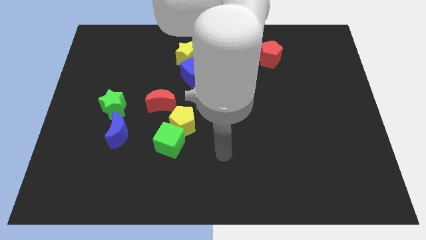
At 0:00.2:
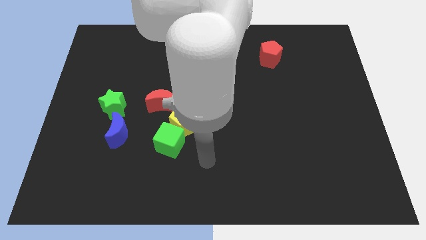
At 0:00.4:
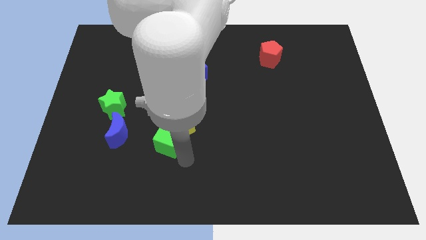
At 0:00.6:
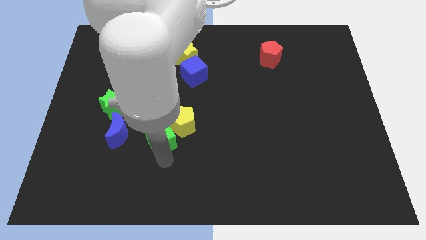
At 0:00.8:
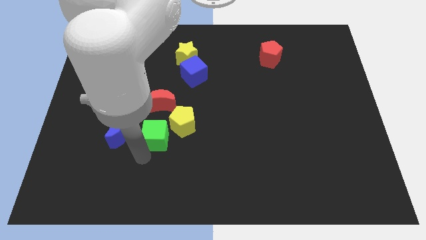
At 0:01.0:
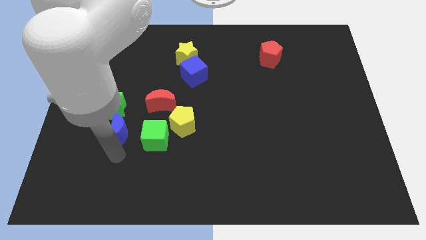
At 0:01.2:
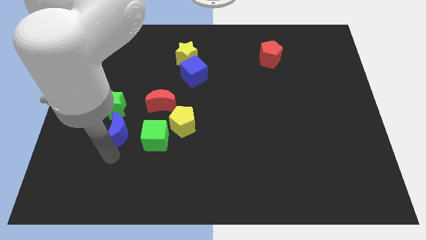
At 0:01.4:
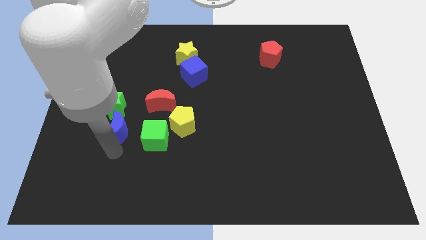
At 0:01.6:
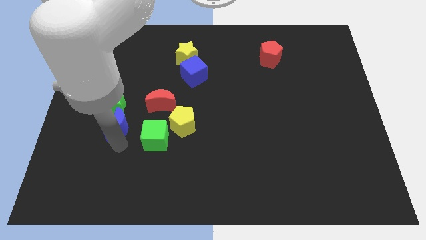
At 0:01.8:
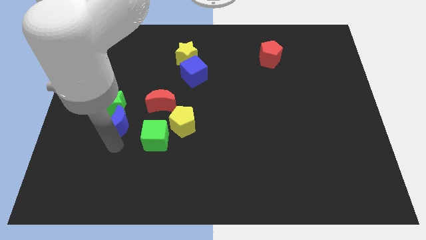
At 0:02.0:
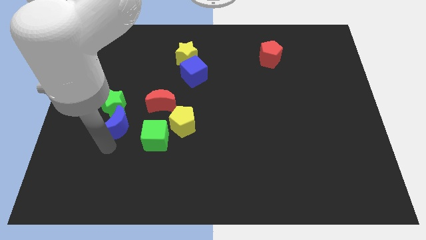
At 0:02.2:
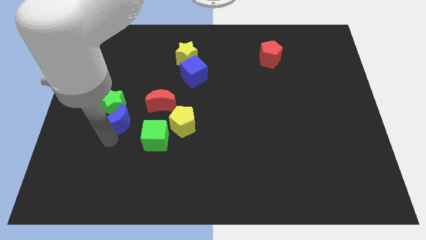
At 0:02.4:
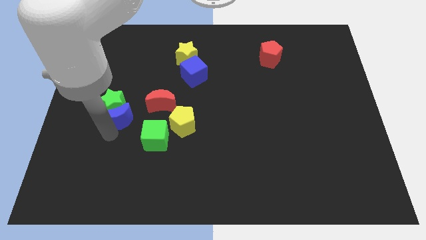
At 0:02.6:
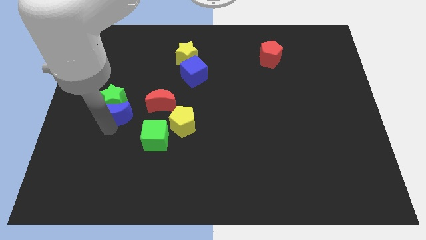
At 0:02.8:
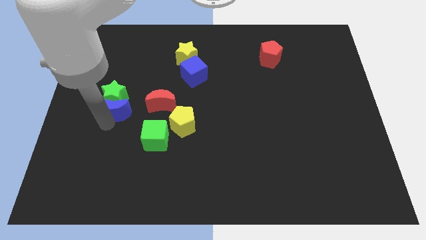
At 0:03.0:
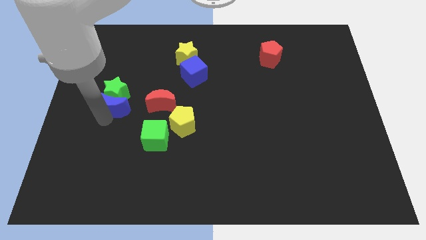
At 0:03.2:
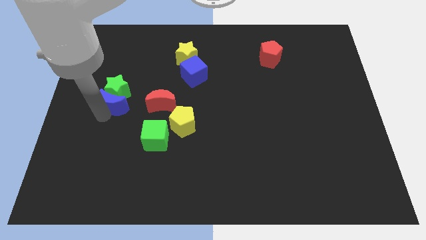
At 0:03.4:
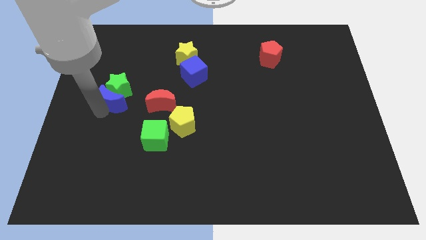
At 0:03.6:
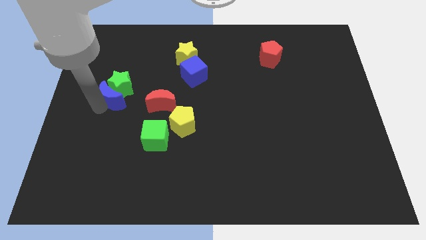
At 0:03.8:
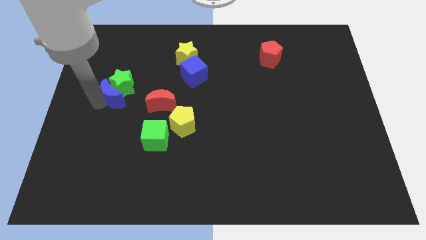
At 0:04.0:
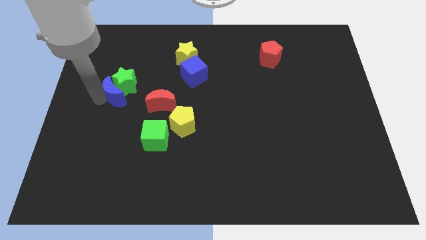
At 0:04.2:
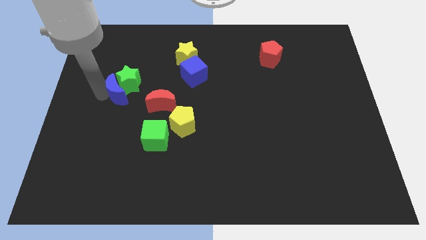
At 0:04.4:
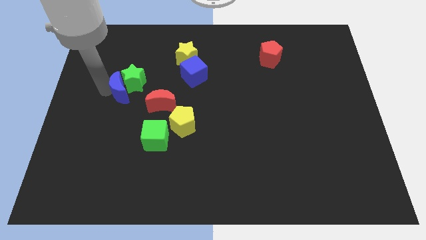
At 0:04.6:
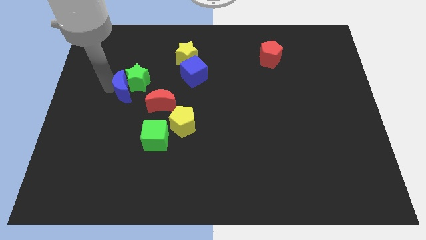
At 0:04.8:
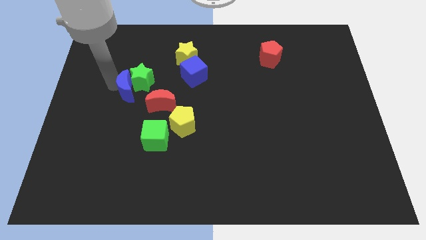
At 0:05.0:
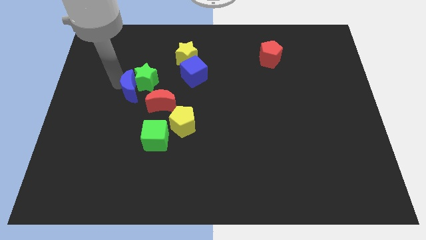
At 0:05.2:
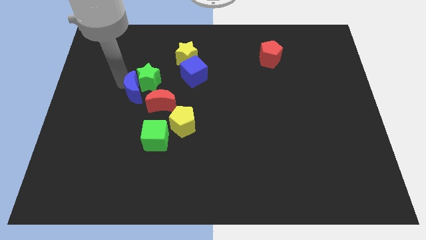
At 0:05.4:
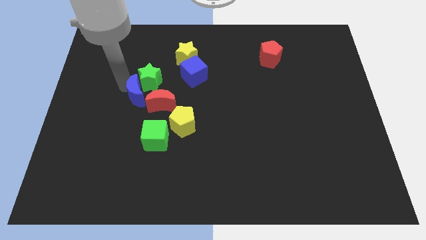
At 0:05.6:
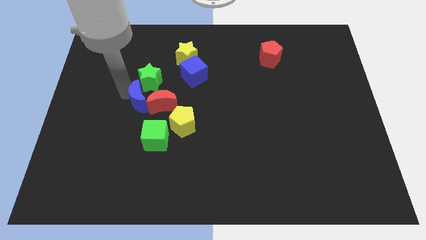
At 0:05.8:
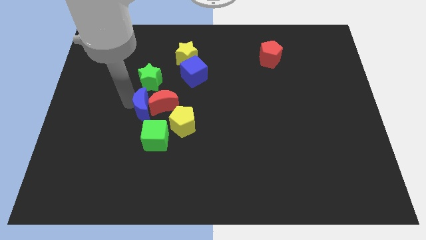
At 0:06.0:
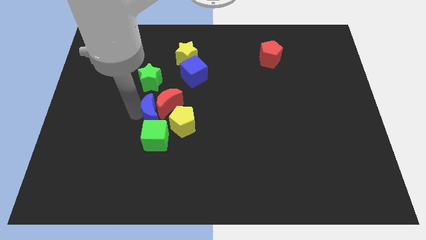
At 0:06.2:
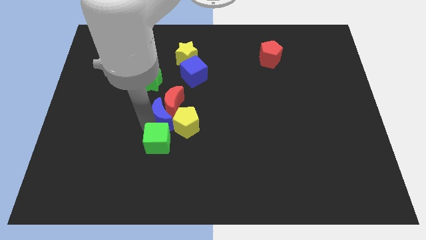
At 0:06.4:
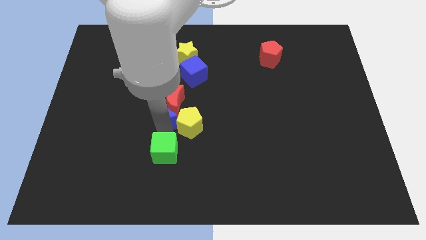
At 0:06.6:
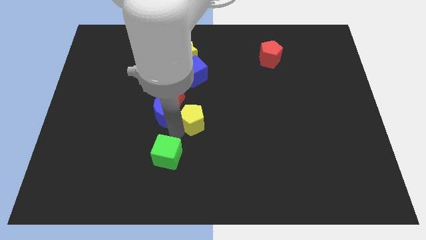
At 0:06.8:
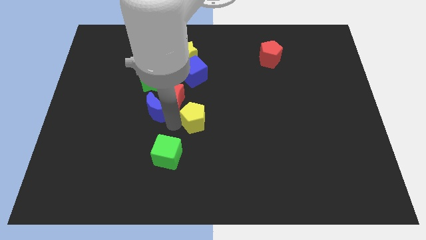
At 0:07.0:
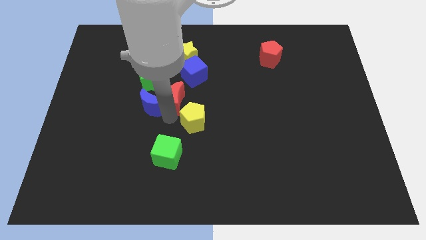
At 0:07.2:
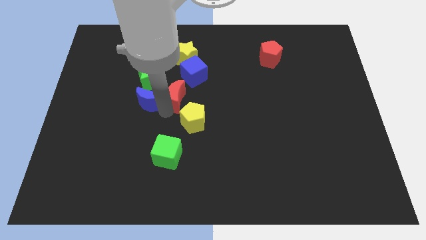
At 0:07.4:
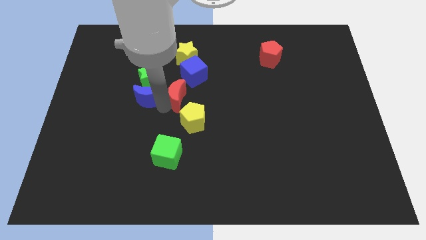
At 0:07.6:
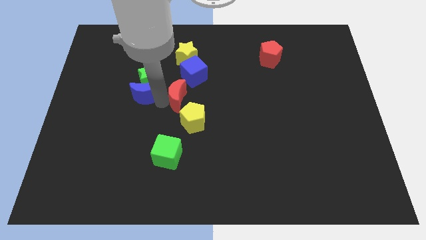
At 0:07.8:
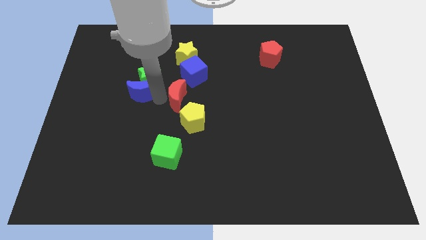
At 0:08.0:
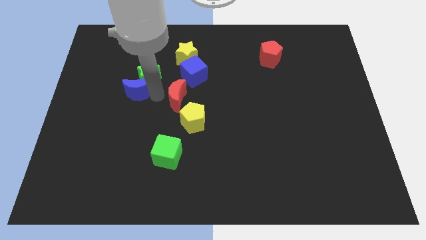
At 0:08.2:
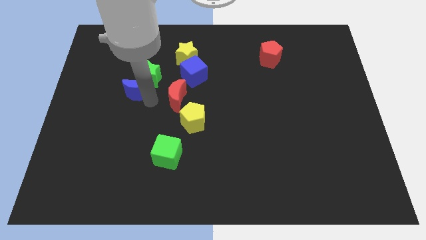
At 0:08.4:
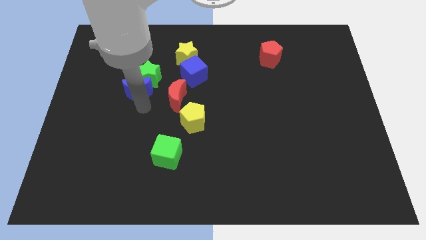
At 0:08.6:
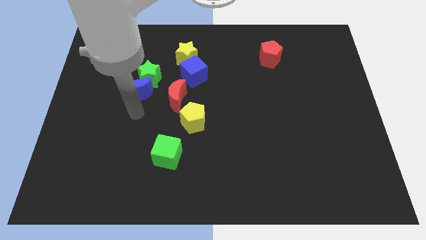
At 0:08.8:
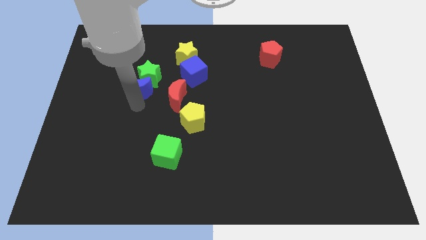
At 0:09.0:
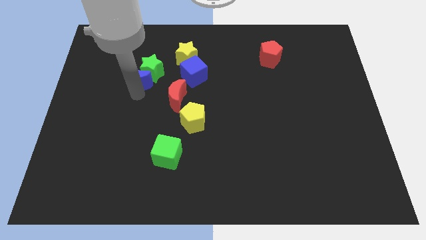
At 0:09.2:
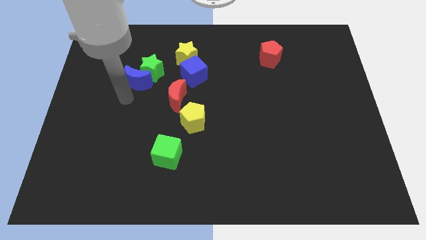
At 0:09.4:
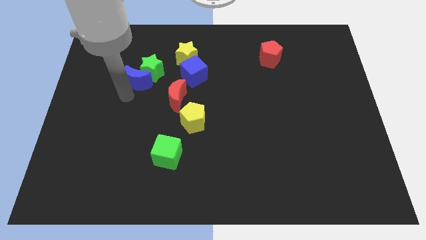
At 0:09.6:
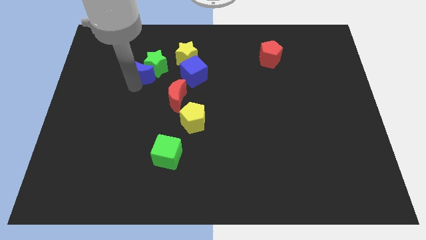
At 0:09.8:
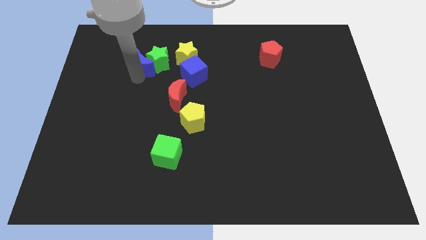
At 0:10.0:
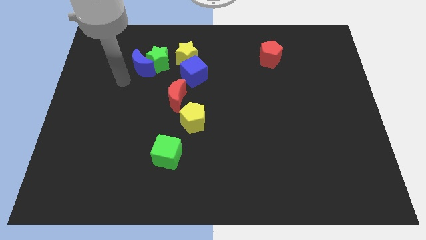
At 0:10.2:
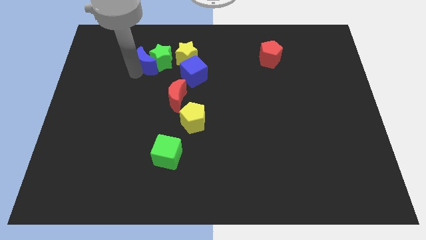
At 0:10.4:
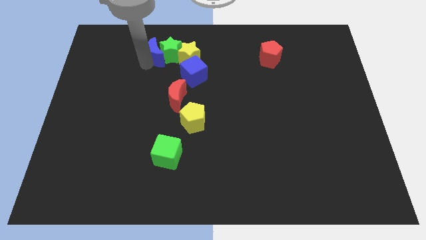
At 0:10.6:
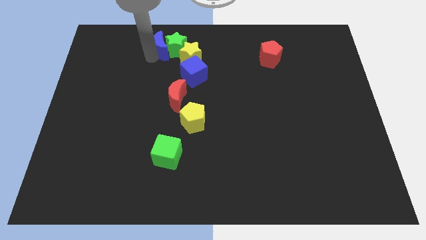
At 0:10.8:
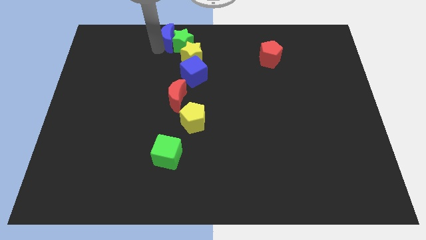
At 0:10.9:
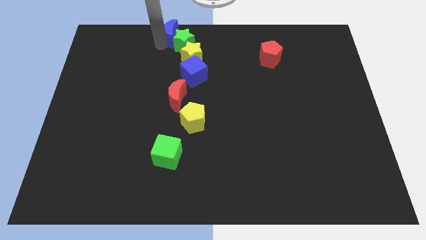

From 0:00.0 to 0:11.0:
slide the blue moon to the top side

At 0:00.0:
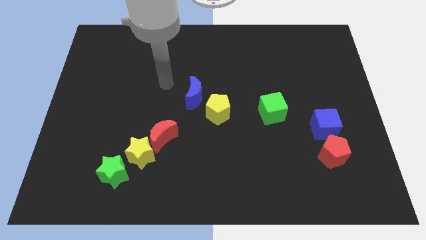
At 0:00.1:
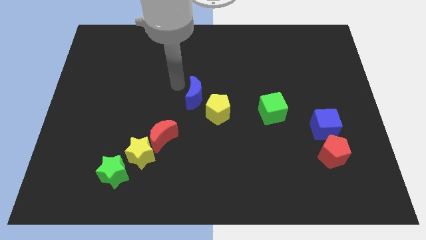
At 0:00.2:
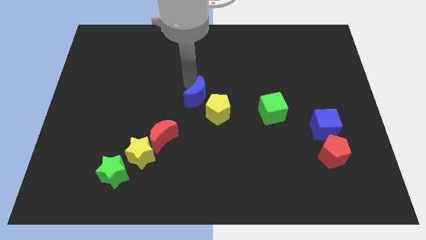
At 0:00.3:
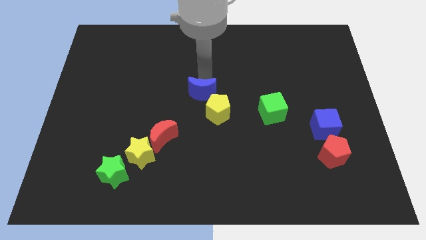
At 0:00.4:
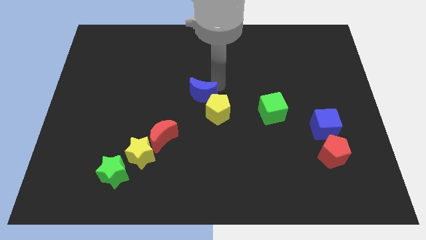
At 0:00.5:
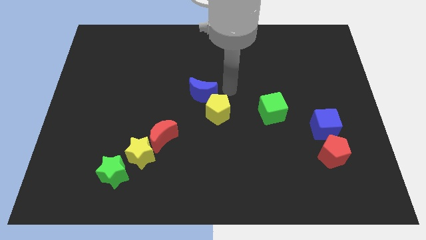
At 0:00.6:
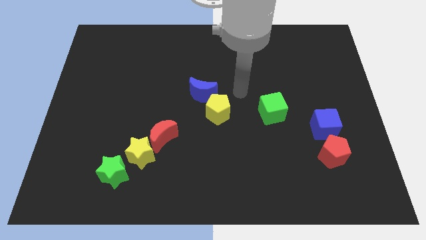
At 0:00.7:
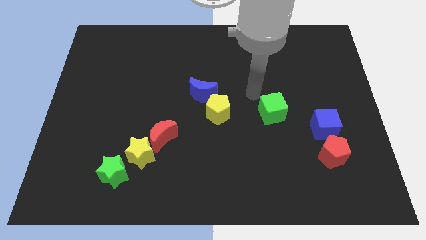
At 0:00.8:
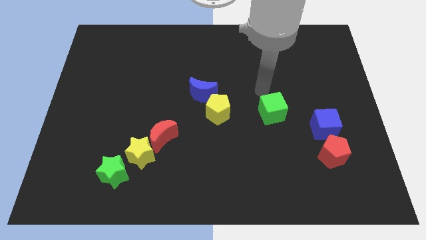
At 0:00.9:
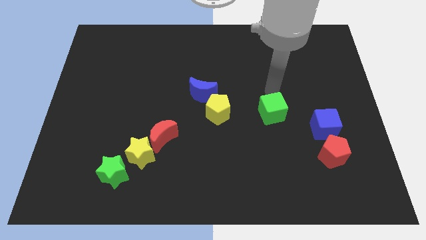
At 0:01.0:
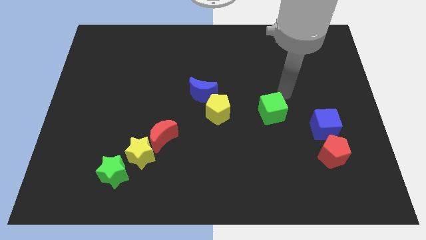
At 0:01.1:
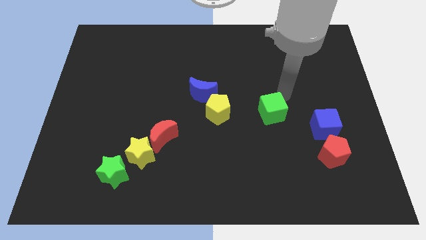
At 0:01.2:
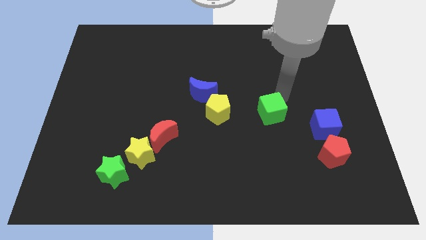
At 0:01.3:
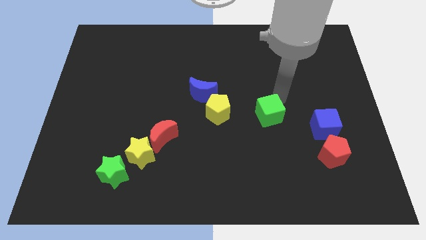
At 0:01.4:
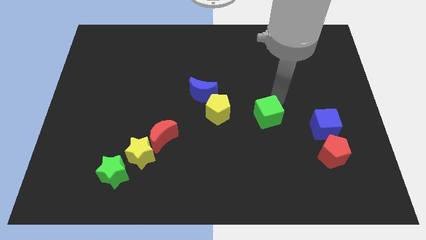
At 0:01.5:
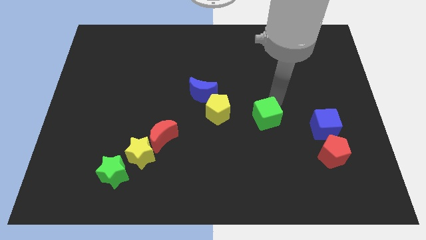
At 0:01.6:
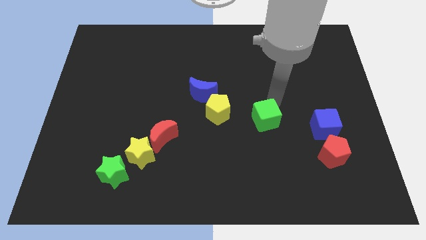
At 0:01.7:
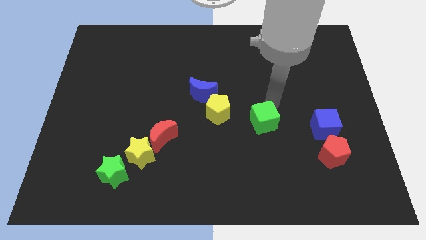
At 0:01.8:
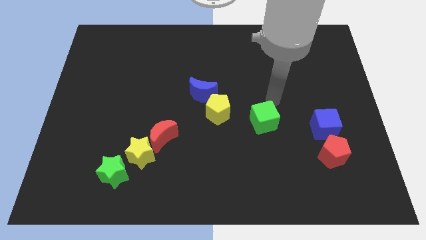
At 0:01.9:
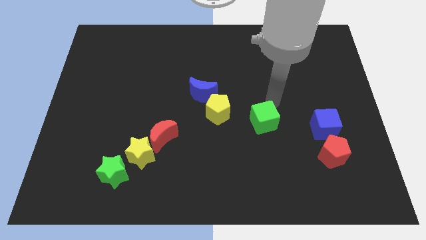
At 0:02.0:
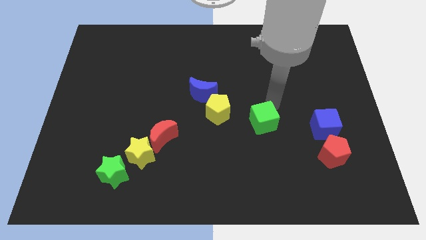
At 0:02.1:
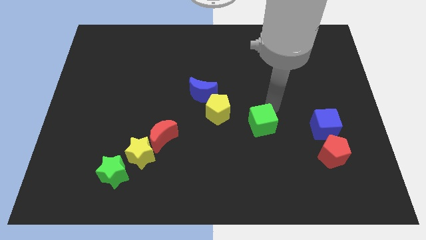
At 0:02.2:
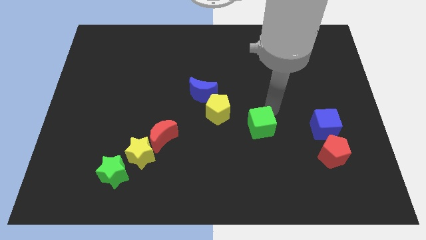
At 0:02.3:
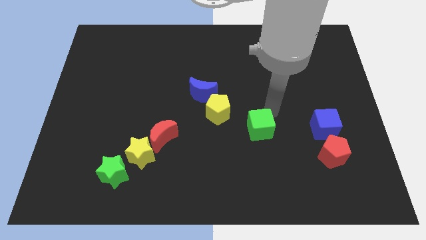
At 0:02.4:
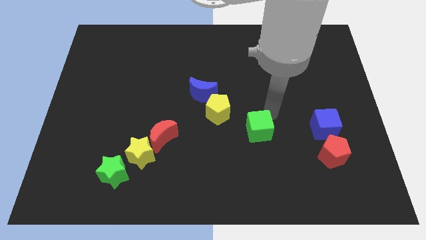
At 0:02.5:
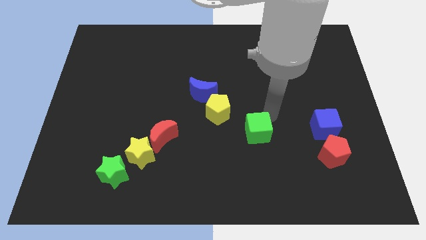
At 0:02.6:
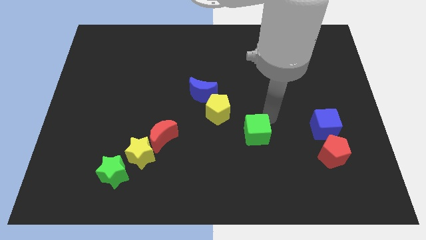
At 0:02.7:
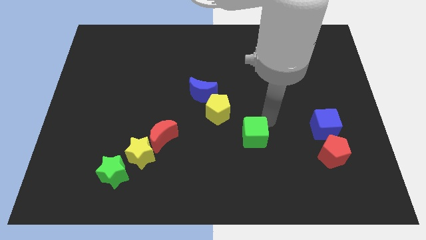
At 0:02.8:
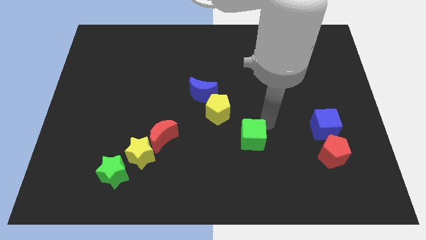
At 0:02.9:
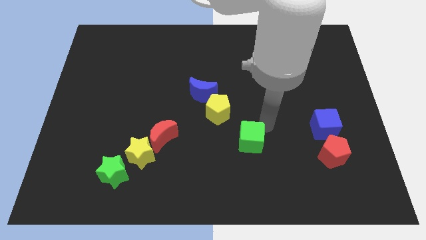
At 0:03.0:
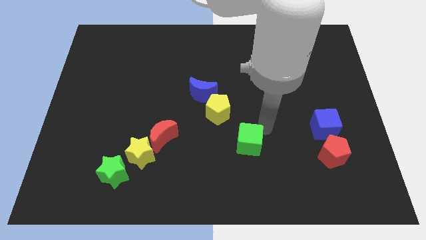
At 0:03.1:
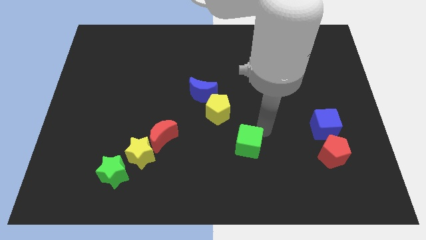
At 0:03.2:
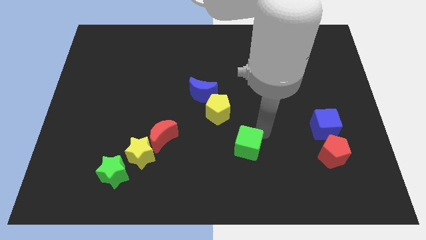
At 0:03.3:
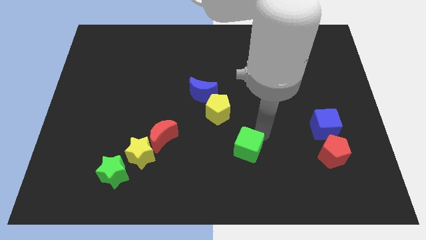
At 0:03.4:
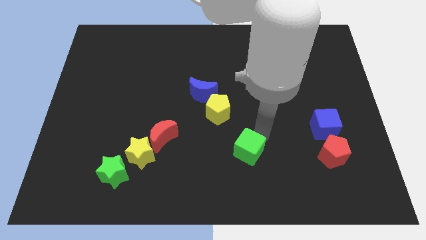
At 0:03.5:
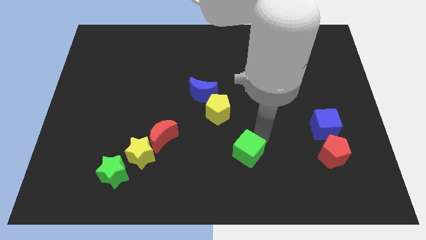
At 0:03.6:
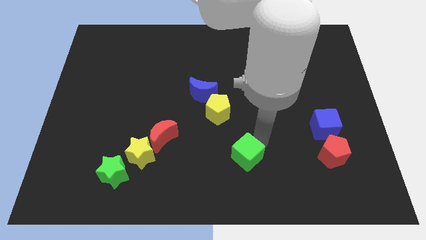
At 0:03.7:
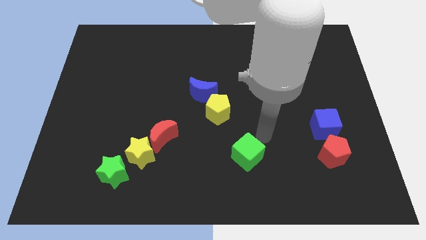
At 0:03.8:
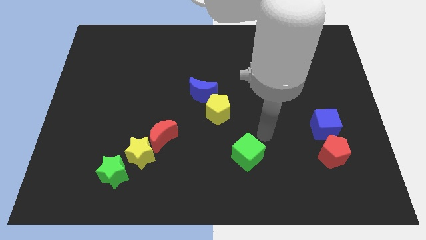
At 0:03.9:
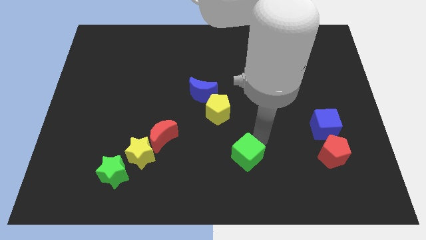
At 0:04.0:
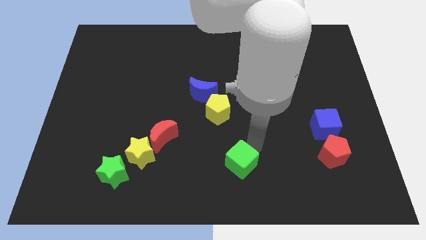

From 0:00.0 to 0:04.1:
put the green cube to the bottom
